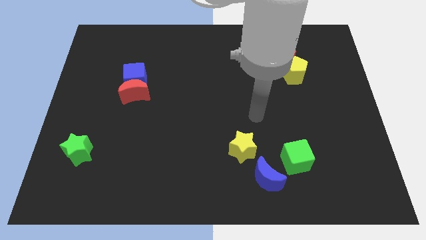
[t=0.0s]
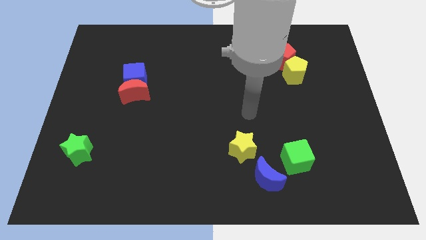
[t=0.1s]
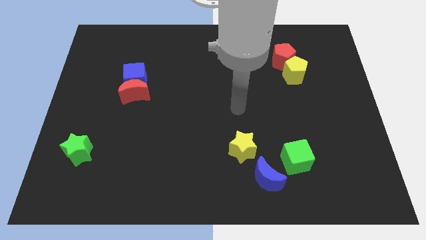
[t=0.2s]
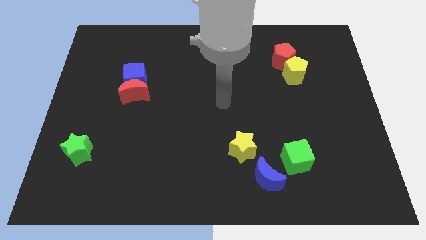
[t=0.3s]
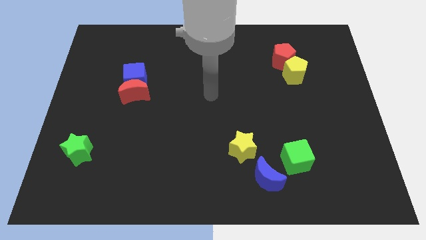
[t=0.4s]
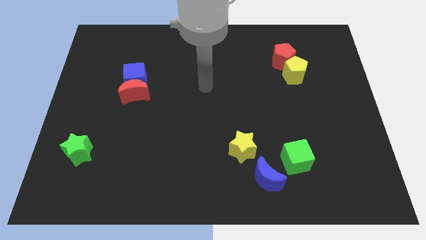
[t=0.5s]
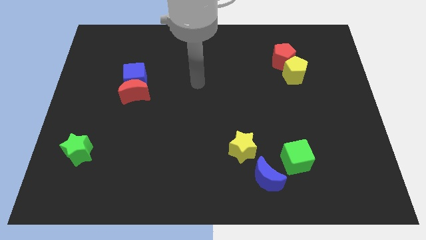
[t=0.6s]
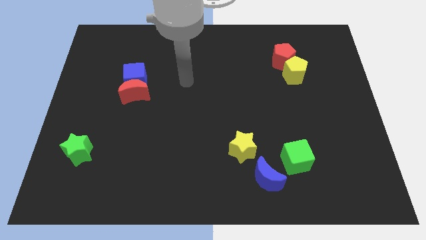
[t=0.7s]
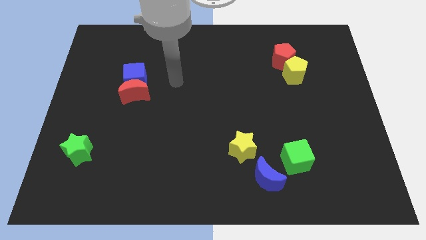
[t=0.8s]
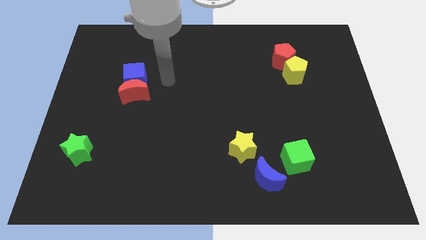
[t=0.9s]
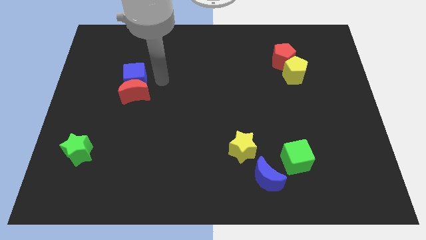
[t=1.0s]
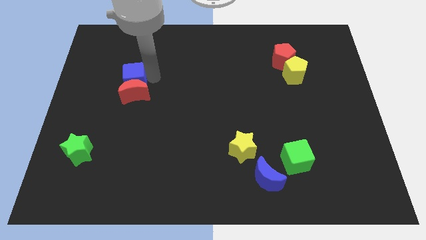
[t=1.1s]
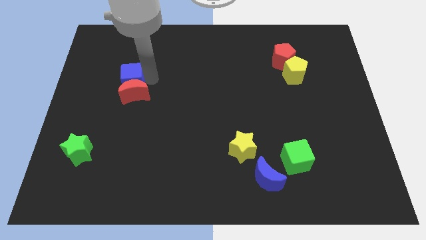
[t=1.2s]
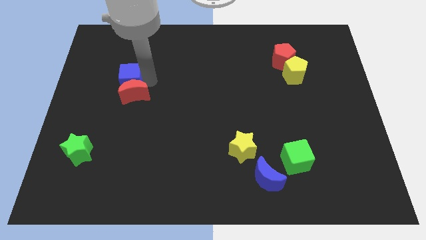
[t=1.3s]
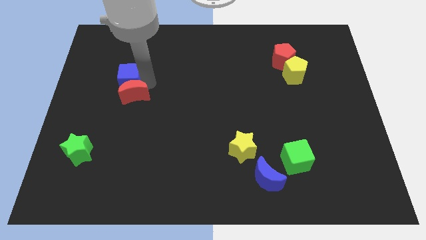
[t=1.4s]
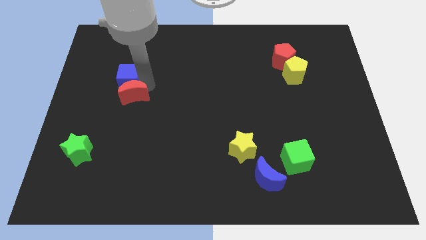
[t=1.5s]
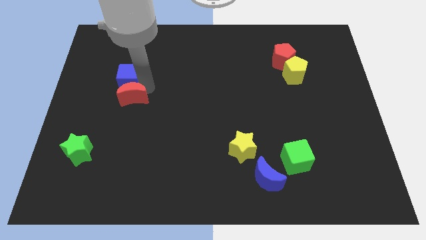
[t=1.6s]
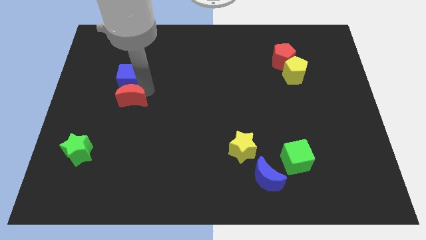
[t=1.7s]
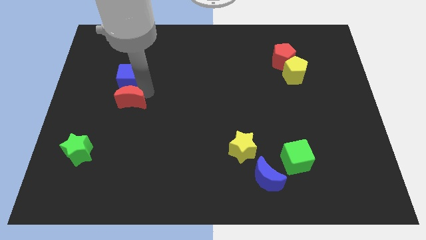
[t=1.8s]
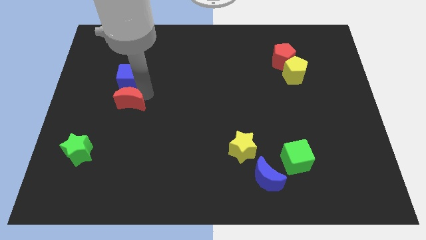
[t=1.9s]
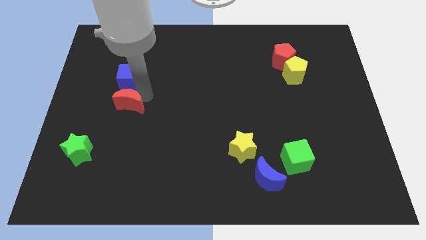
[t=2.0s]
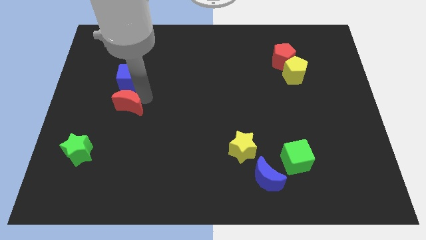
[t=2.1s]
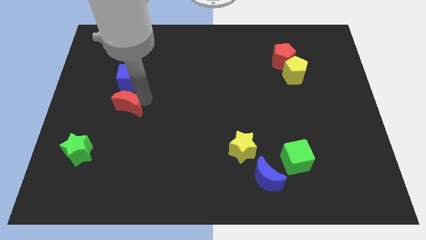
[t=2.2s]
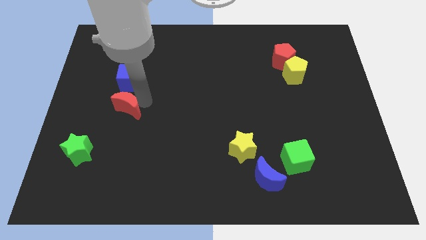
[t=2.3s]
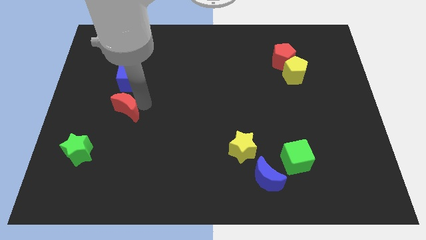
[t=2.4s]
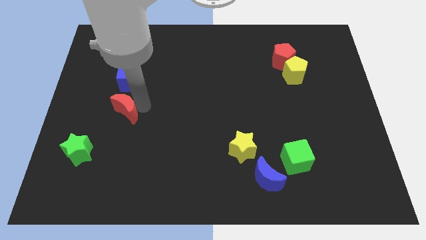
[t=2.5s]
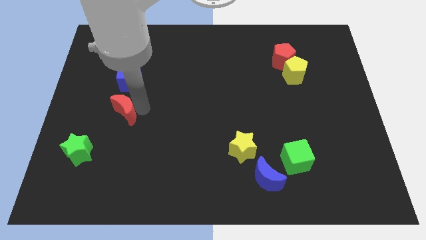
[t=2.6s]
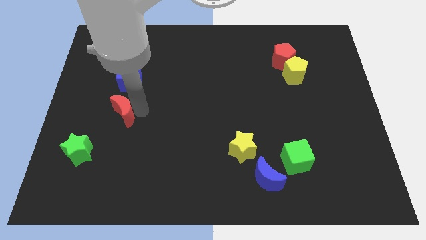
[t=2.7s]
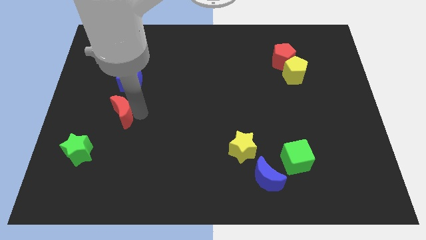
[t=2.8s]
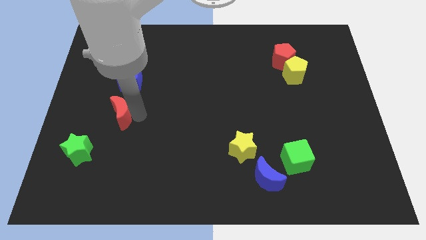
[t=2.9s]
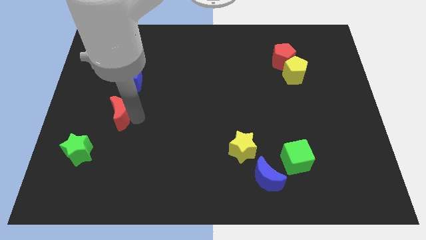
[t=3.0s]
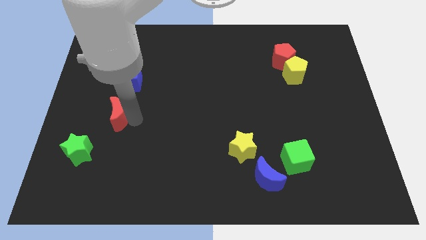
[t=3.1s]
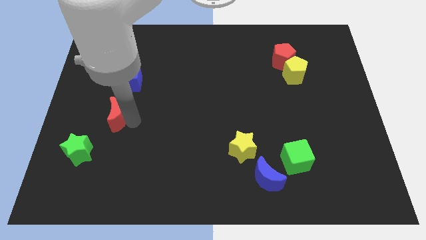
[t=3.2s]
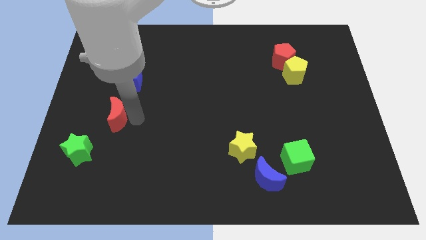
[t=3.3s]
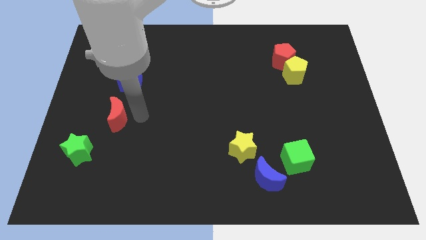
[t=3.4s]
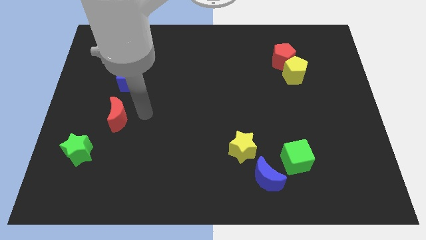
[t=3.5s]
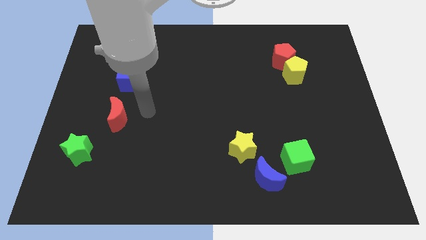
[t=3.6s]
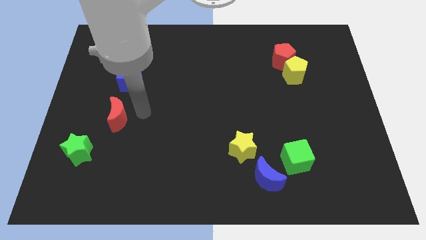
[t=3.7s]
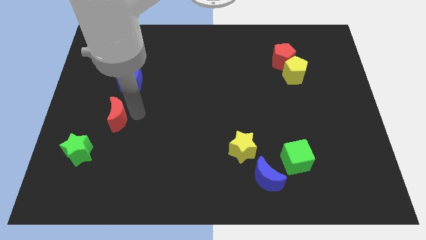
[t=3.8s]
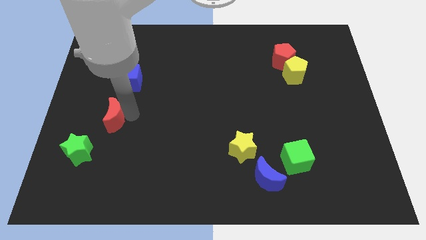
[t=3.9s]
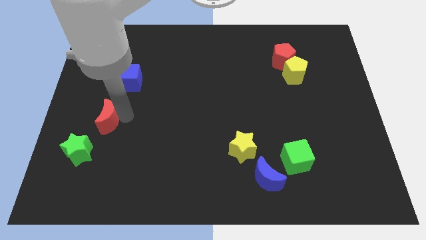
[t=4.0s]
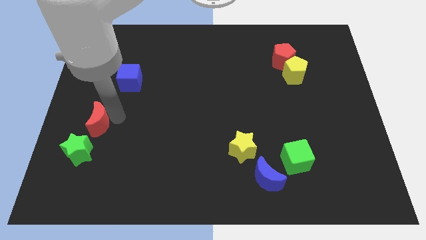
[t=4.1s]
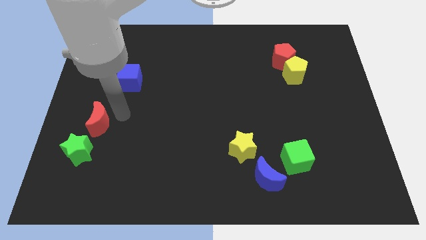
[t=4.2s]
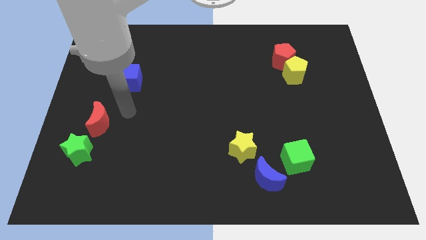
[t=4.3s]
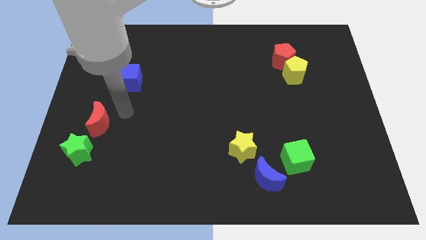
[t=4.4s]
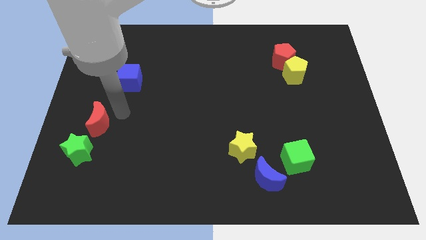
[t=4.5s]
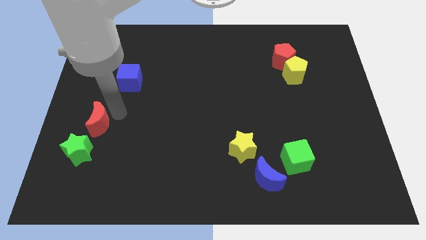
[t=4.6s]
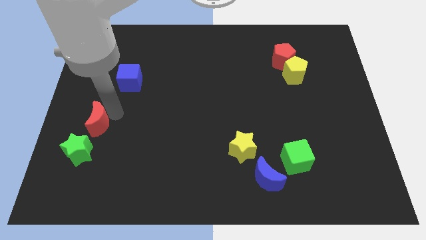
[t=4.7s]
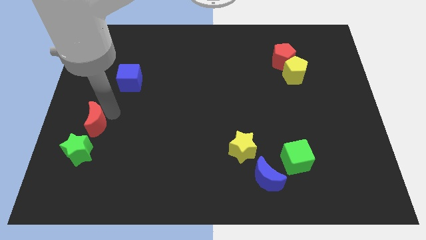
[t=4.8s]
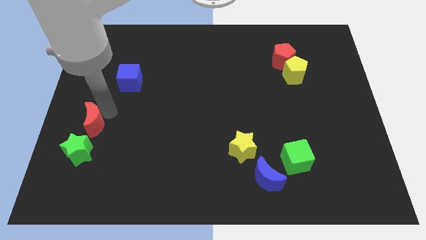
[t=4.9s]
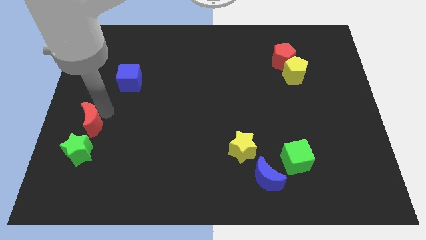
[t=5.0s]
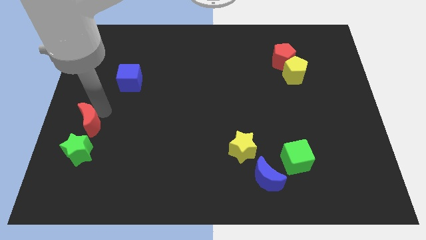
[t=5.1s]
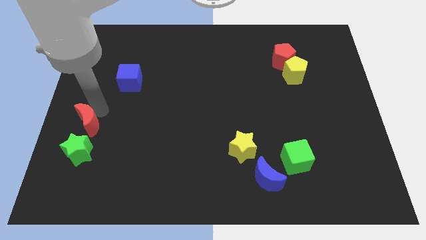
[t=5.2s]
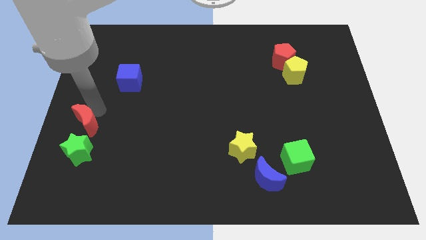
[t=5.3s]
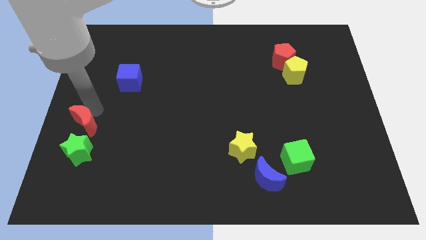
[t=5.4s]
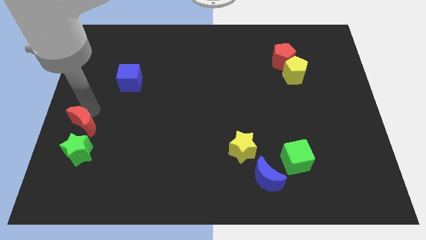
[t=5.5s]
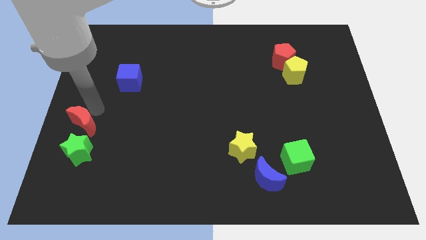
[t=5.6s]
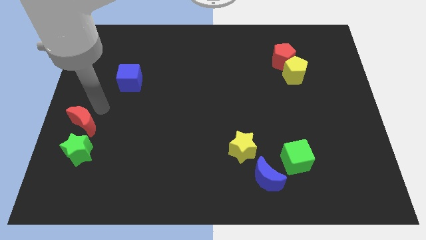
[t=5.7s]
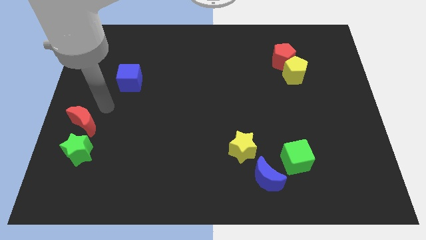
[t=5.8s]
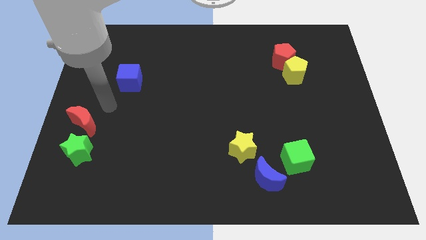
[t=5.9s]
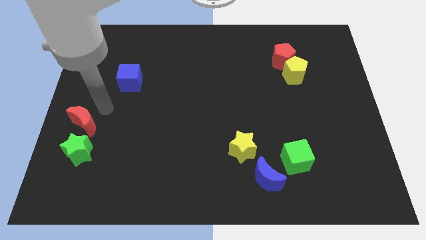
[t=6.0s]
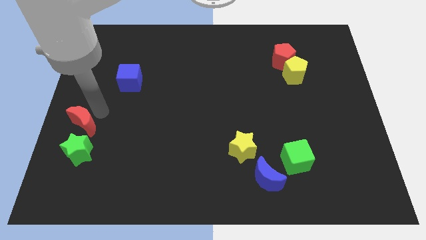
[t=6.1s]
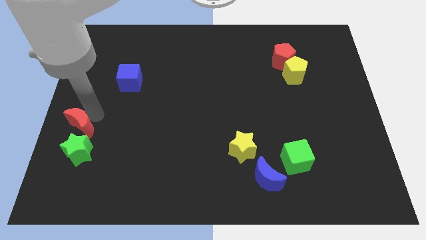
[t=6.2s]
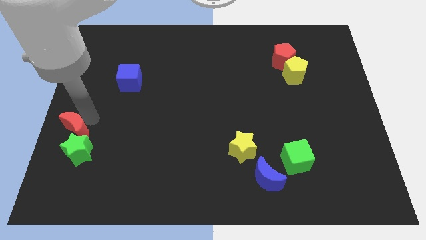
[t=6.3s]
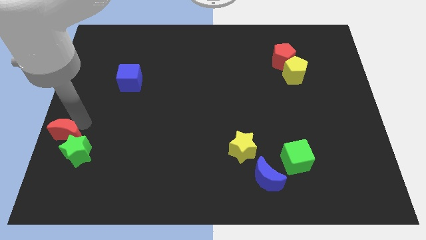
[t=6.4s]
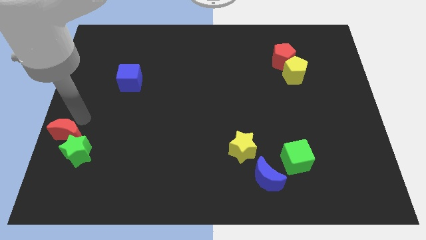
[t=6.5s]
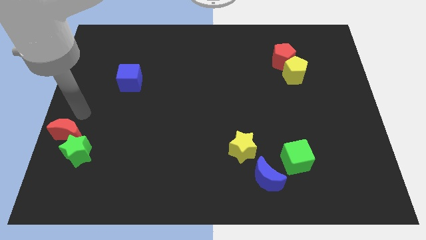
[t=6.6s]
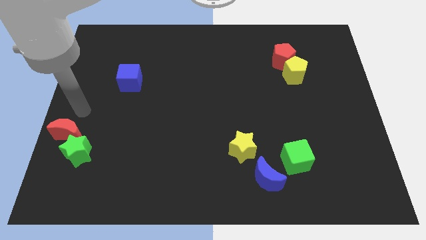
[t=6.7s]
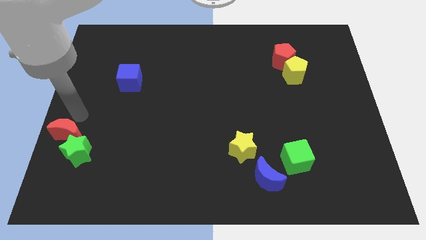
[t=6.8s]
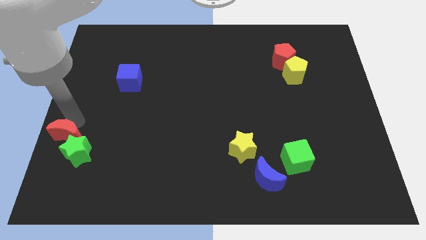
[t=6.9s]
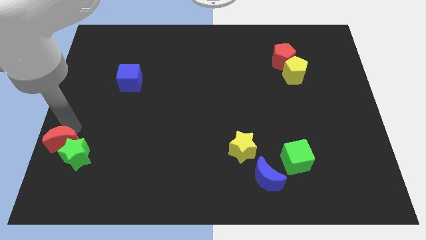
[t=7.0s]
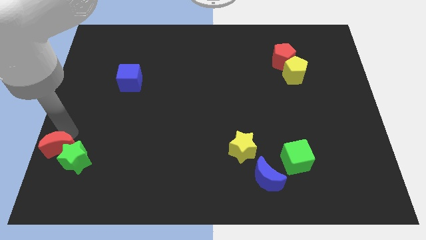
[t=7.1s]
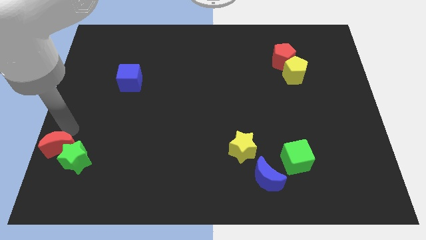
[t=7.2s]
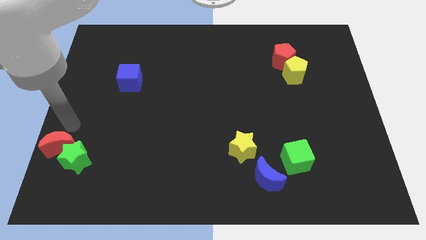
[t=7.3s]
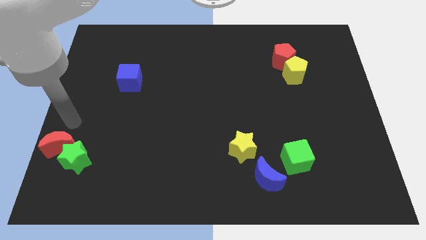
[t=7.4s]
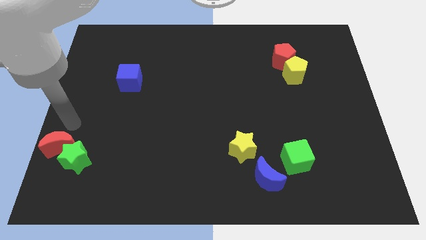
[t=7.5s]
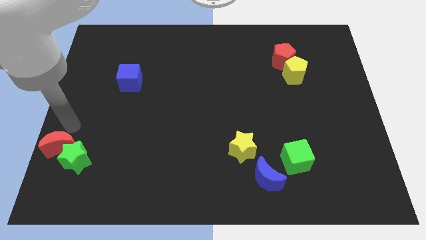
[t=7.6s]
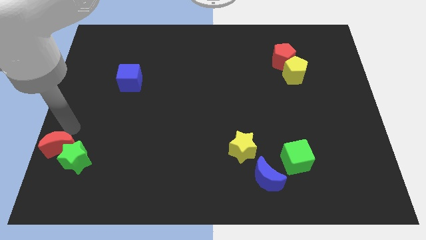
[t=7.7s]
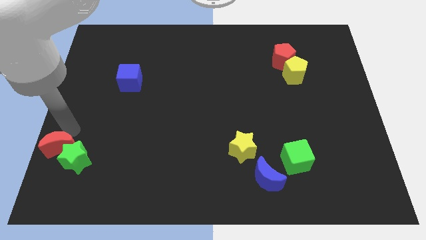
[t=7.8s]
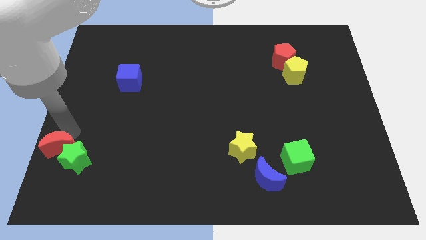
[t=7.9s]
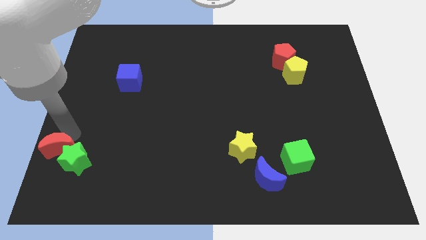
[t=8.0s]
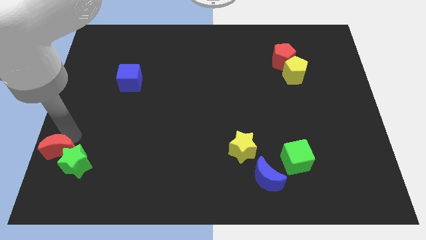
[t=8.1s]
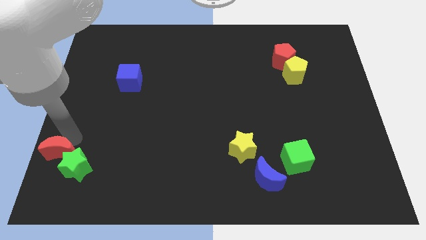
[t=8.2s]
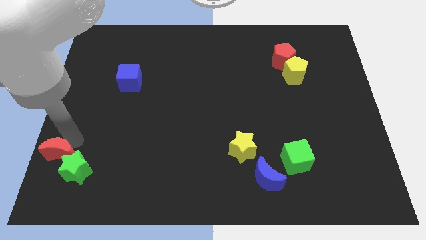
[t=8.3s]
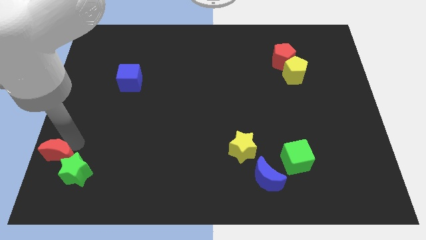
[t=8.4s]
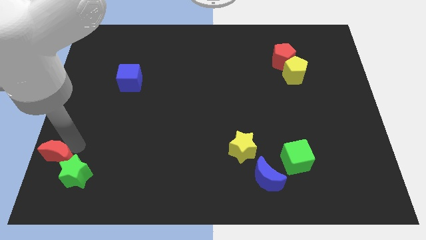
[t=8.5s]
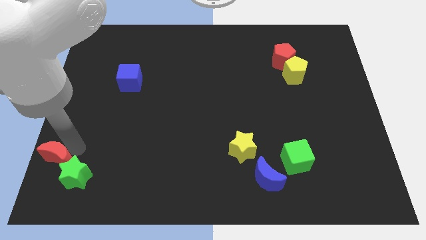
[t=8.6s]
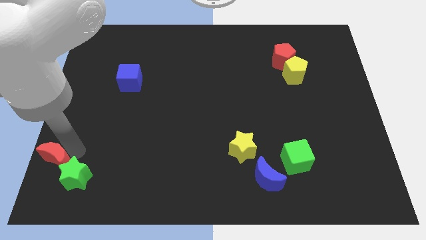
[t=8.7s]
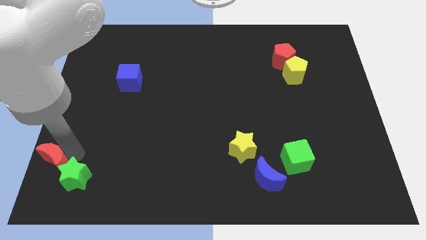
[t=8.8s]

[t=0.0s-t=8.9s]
slide the red moon to the lower left corner
